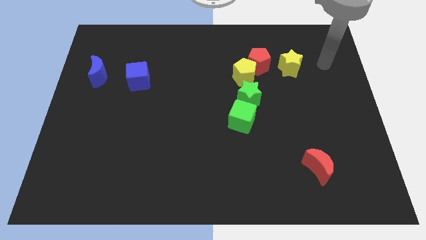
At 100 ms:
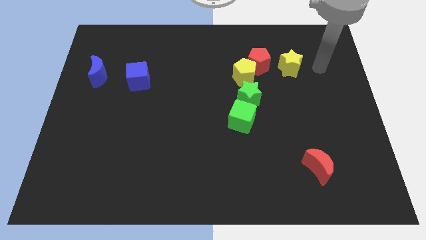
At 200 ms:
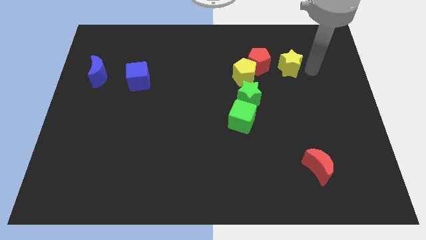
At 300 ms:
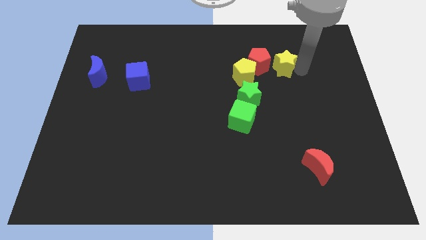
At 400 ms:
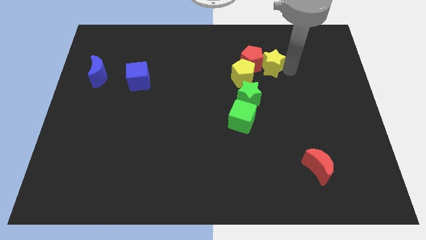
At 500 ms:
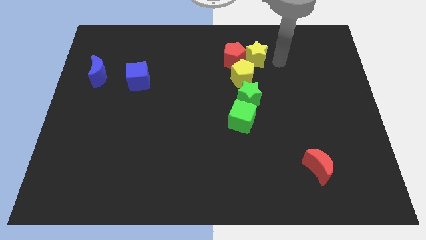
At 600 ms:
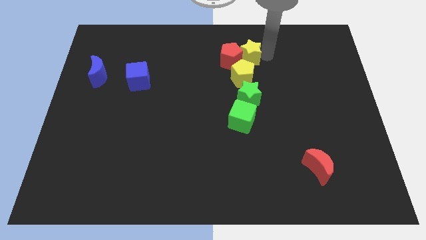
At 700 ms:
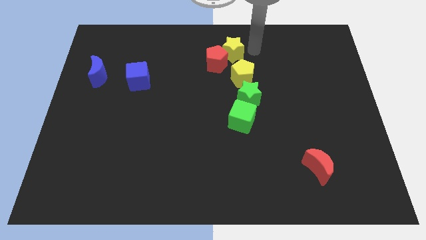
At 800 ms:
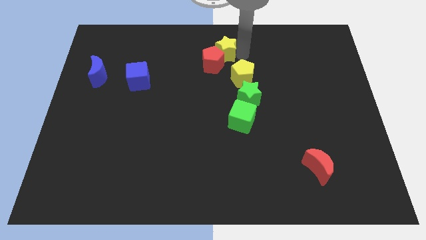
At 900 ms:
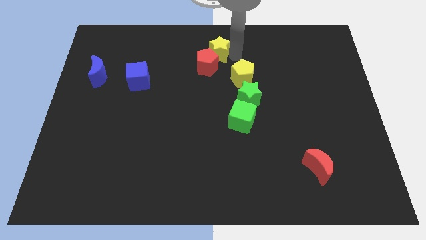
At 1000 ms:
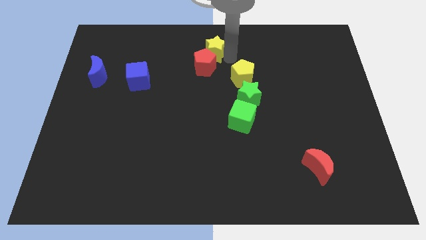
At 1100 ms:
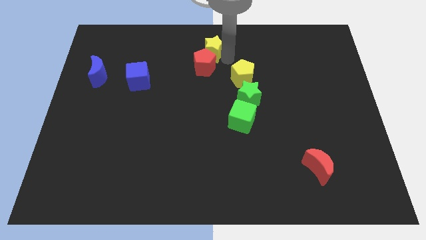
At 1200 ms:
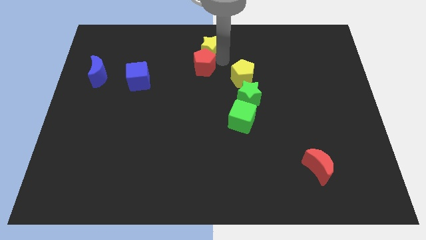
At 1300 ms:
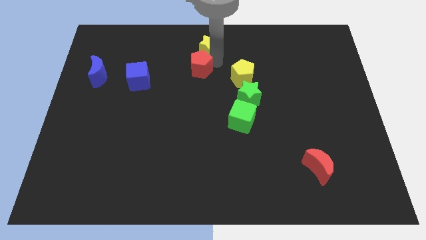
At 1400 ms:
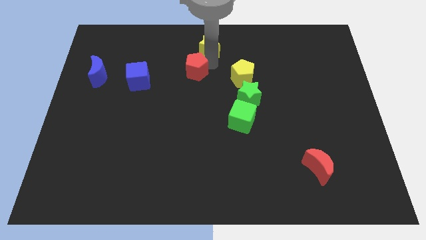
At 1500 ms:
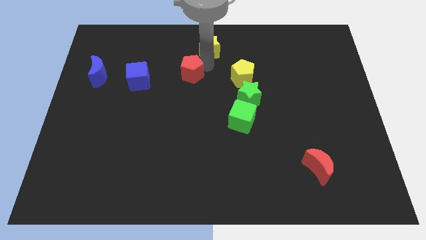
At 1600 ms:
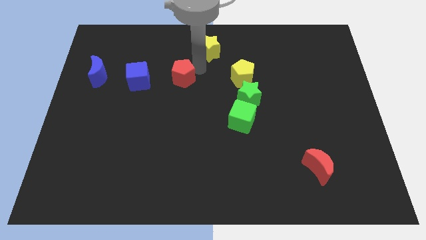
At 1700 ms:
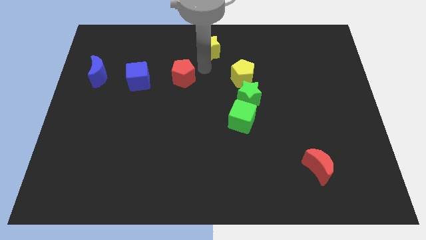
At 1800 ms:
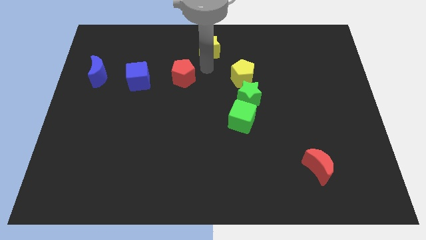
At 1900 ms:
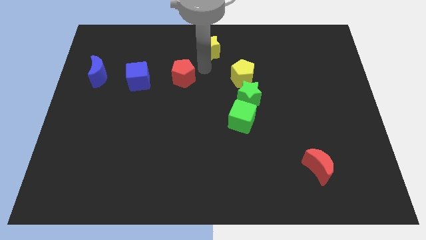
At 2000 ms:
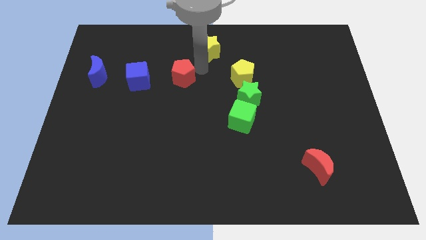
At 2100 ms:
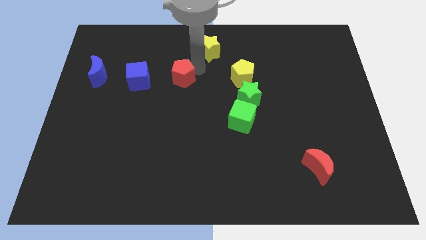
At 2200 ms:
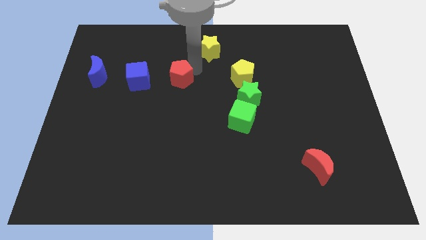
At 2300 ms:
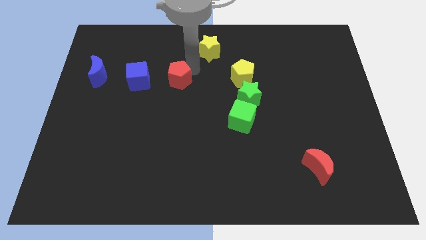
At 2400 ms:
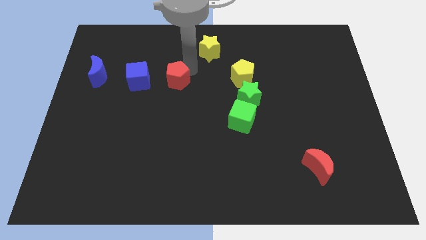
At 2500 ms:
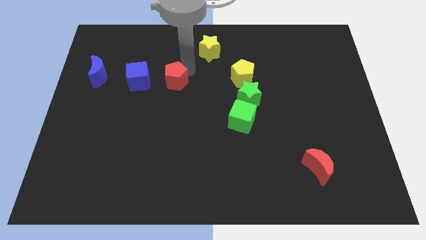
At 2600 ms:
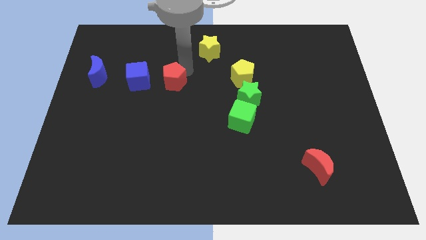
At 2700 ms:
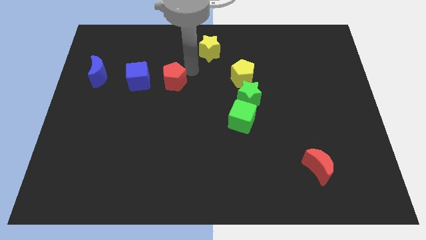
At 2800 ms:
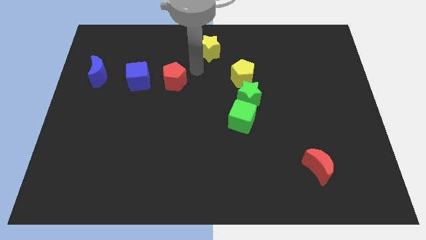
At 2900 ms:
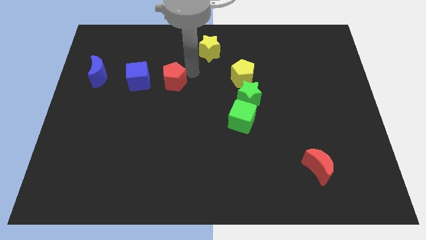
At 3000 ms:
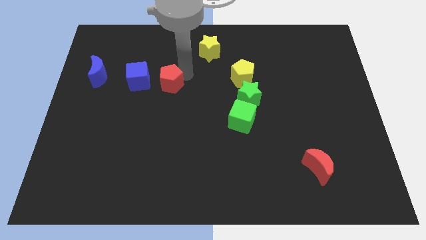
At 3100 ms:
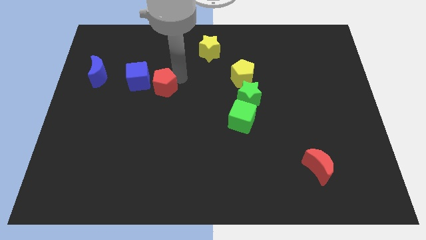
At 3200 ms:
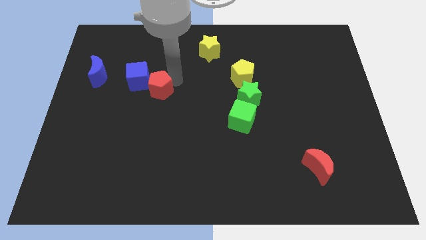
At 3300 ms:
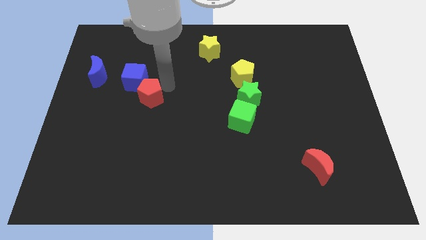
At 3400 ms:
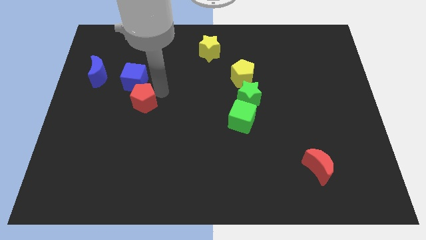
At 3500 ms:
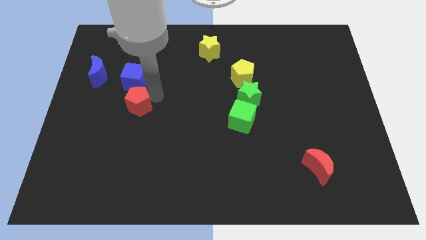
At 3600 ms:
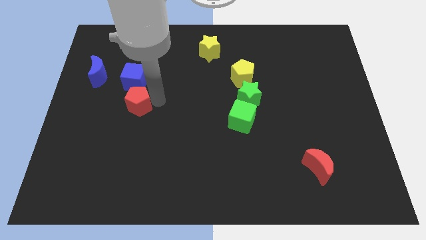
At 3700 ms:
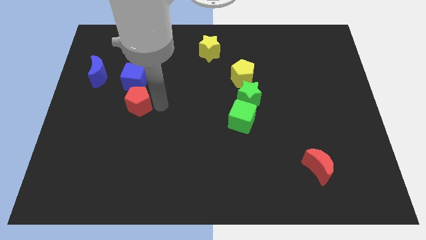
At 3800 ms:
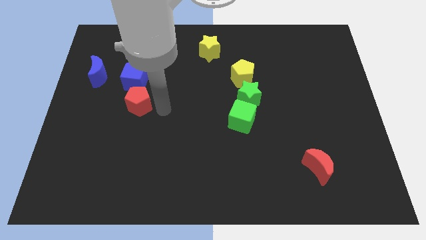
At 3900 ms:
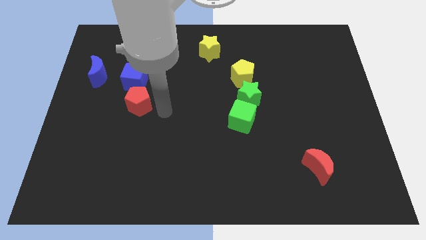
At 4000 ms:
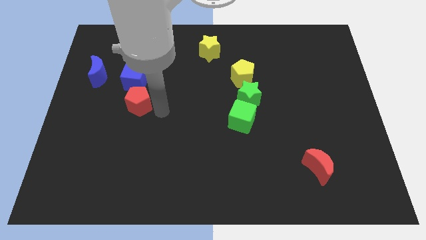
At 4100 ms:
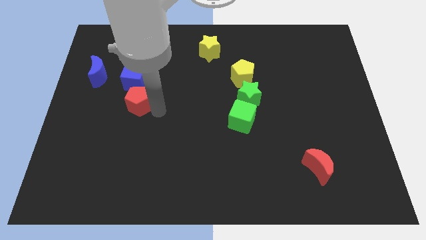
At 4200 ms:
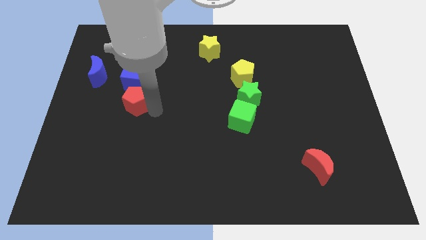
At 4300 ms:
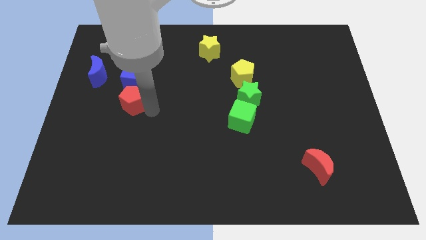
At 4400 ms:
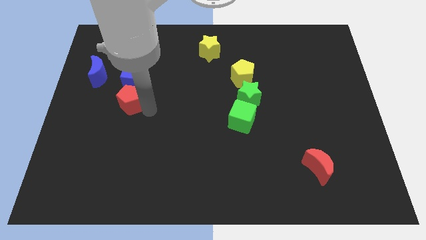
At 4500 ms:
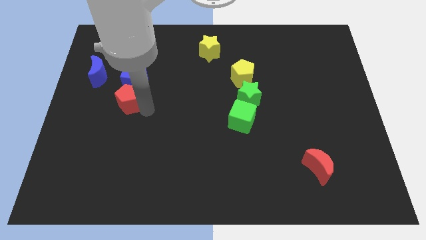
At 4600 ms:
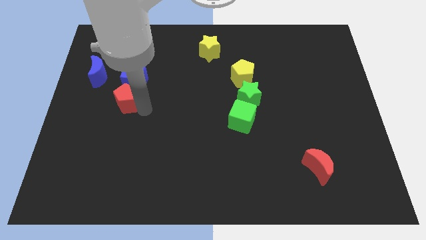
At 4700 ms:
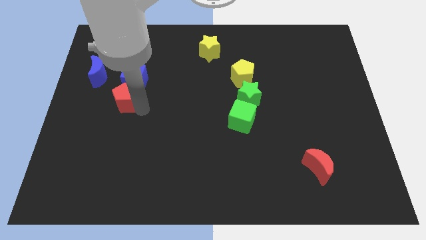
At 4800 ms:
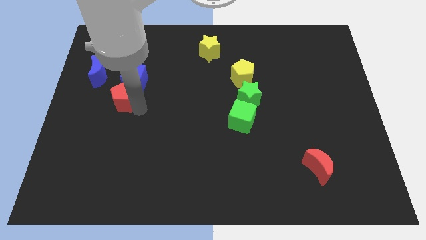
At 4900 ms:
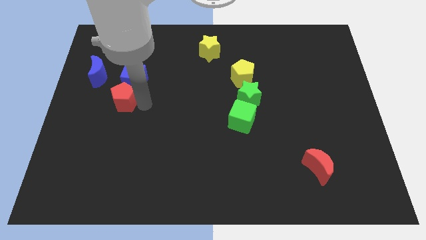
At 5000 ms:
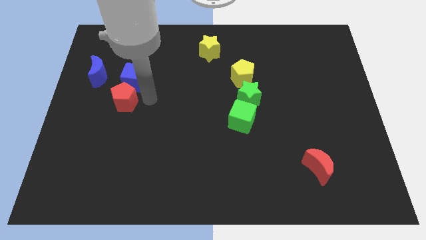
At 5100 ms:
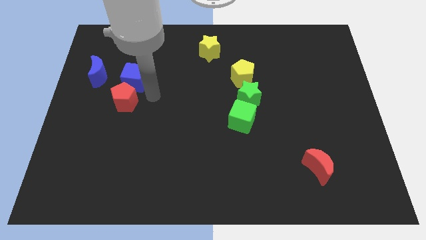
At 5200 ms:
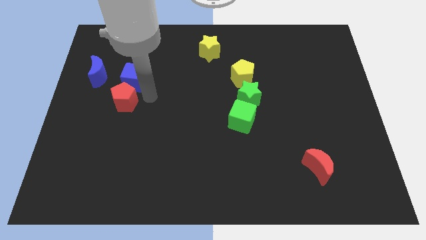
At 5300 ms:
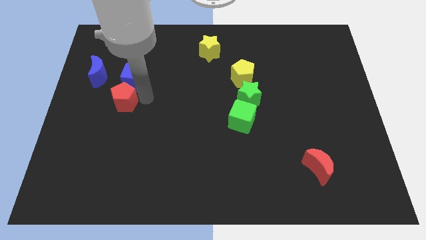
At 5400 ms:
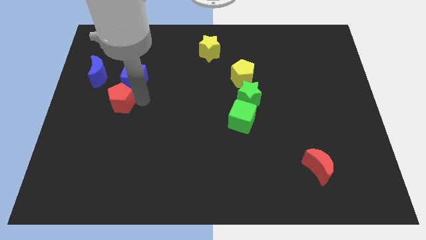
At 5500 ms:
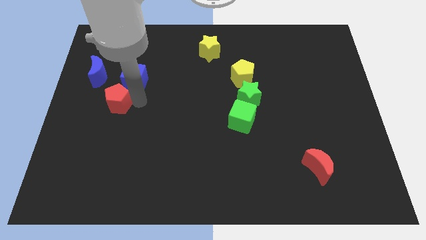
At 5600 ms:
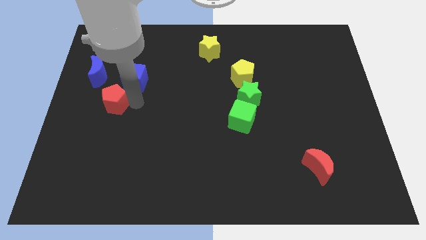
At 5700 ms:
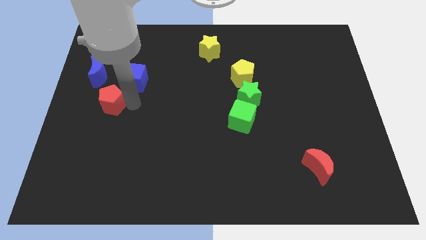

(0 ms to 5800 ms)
move the red pentagon to the bottom side of the blue moon

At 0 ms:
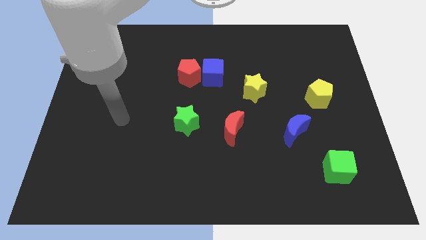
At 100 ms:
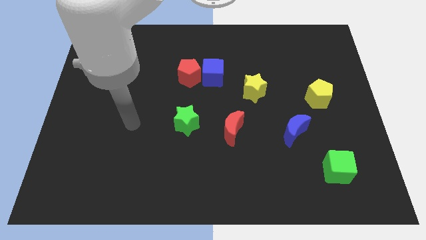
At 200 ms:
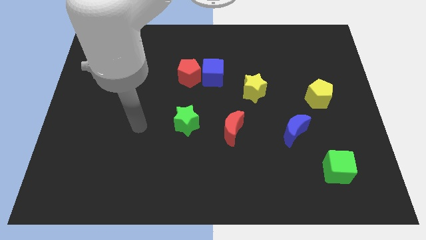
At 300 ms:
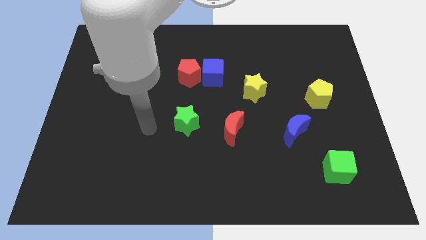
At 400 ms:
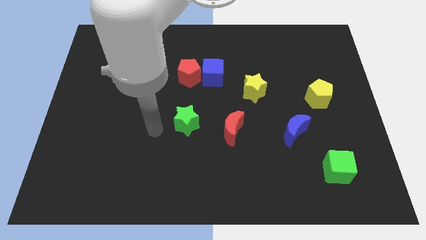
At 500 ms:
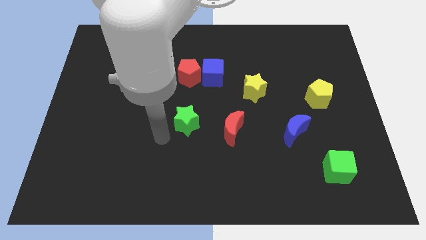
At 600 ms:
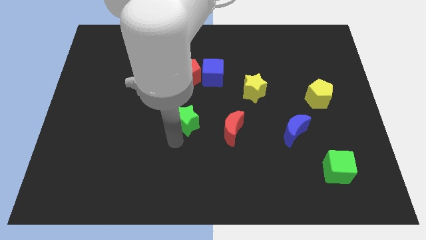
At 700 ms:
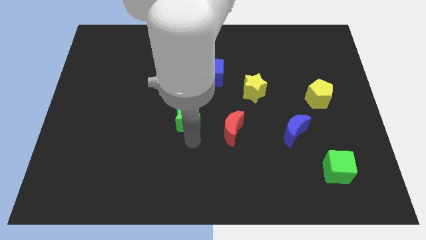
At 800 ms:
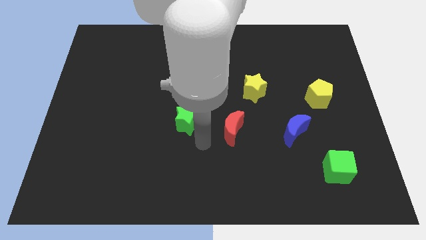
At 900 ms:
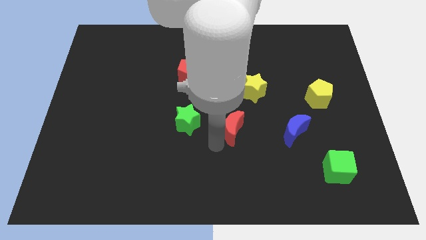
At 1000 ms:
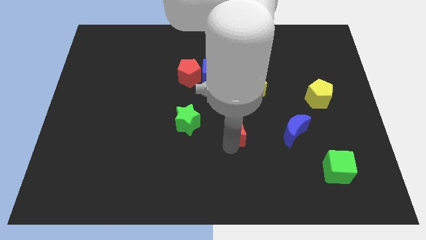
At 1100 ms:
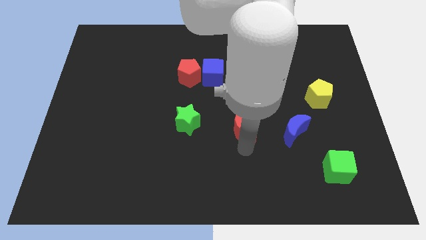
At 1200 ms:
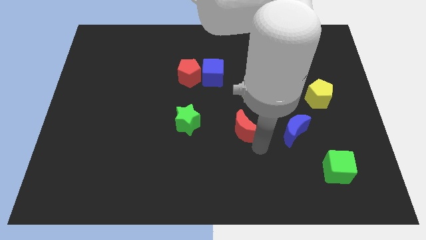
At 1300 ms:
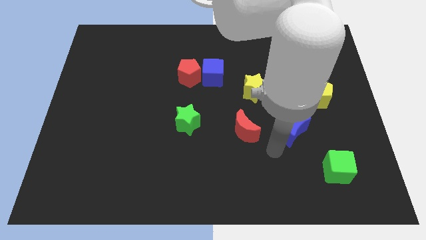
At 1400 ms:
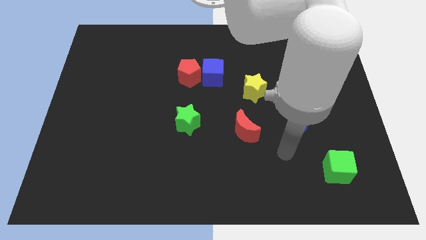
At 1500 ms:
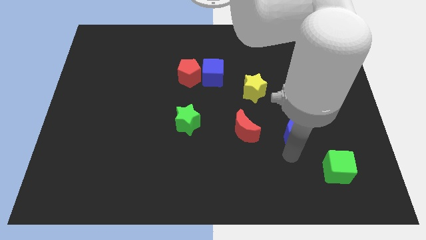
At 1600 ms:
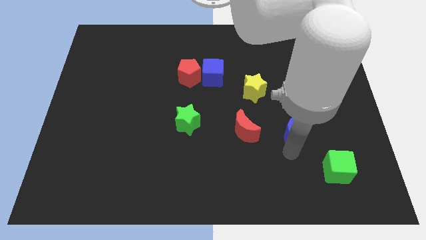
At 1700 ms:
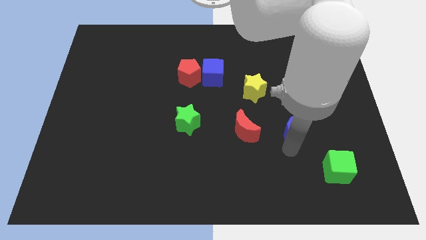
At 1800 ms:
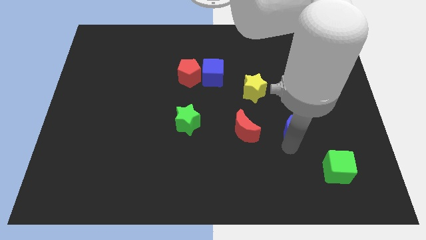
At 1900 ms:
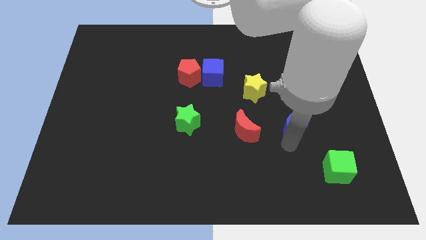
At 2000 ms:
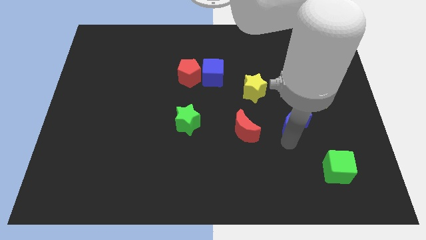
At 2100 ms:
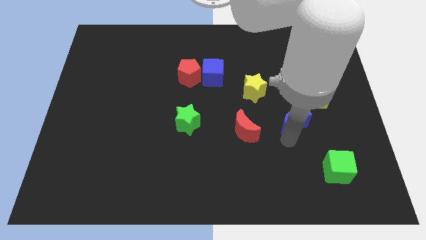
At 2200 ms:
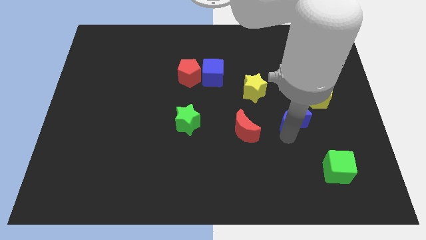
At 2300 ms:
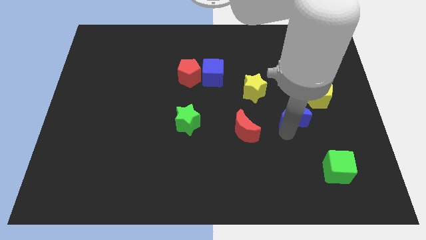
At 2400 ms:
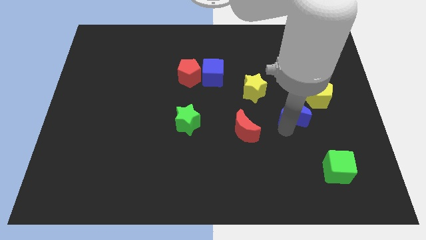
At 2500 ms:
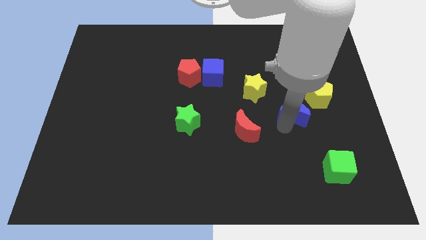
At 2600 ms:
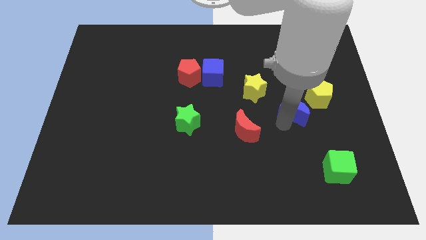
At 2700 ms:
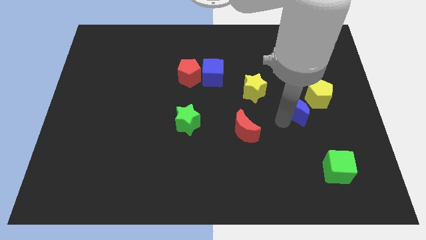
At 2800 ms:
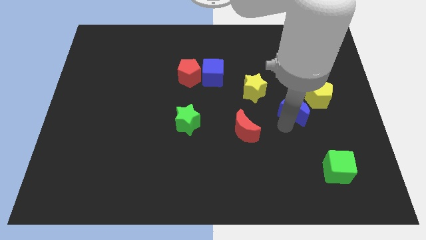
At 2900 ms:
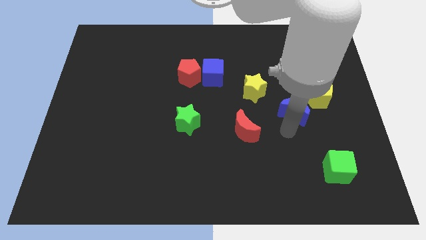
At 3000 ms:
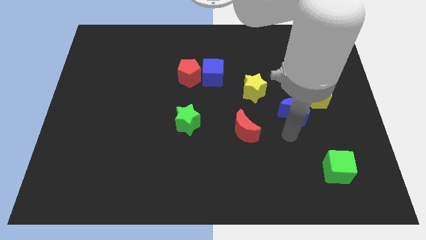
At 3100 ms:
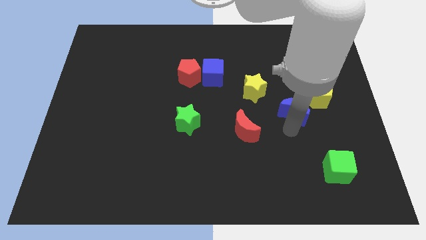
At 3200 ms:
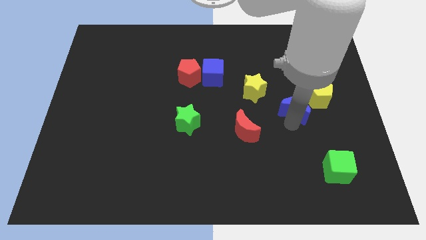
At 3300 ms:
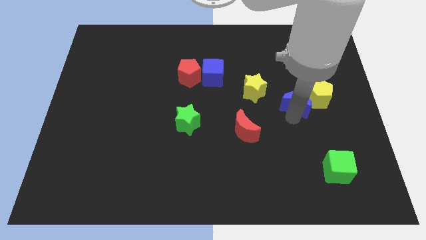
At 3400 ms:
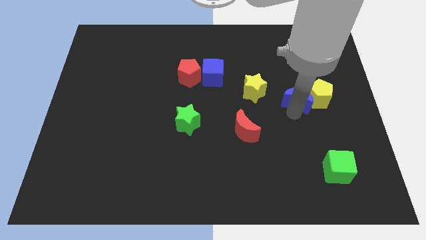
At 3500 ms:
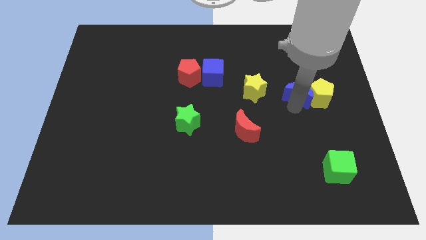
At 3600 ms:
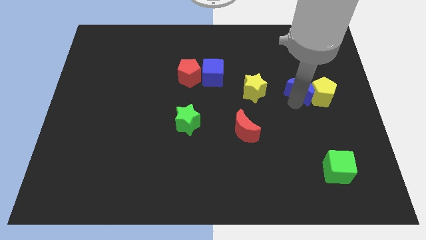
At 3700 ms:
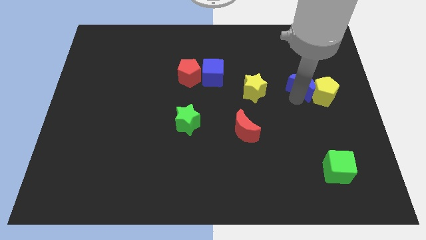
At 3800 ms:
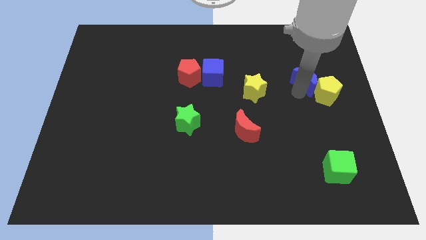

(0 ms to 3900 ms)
move the blue moon to the top side of the yellow pentagon
